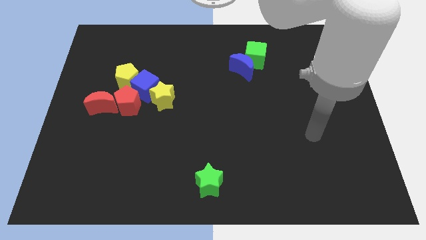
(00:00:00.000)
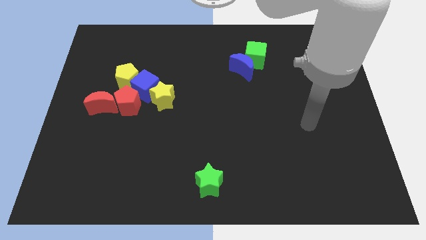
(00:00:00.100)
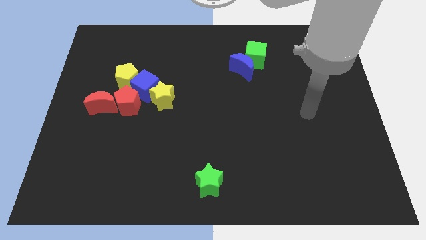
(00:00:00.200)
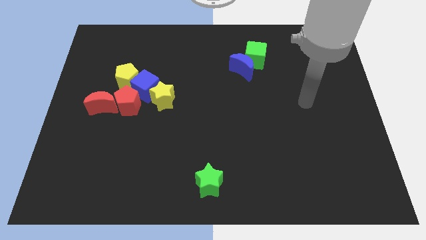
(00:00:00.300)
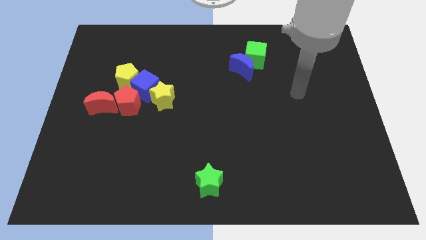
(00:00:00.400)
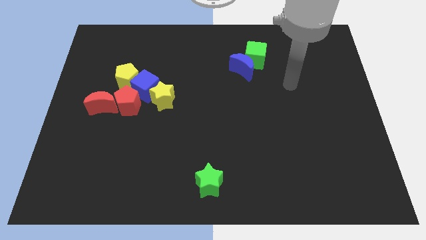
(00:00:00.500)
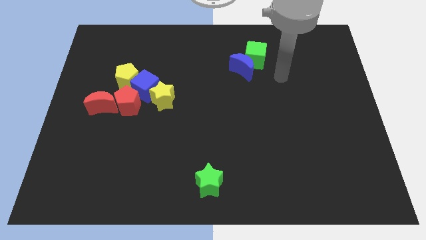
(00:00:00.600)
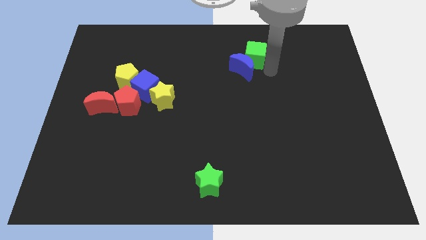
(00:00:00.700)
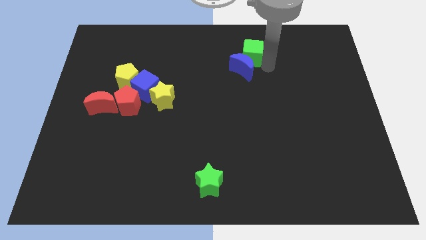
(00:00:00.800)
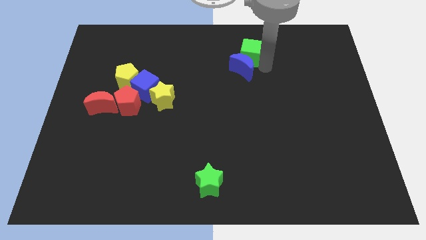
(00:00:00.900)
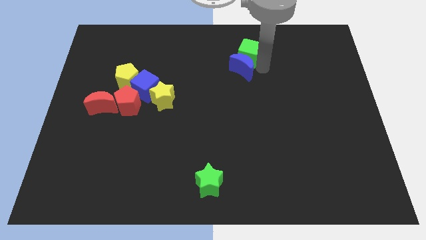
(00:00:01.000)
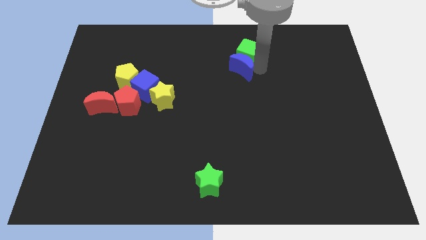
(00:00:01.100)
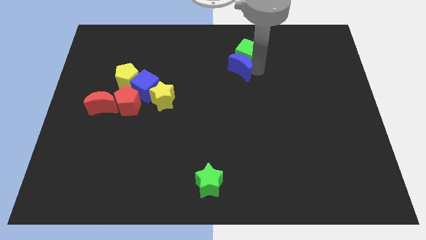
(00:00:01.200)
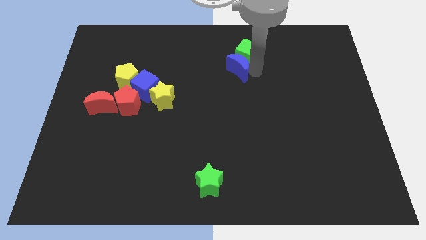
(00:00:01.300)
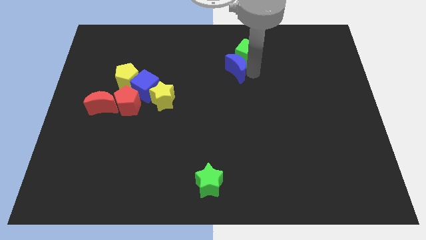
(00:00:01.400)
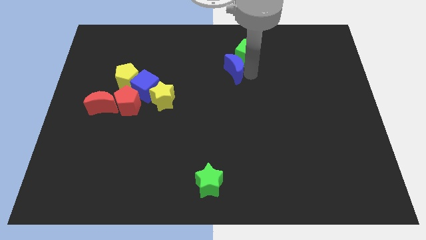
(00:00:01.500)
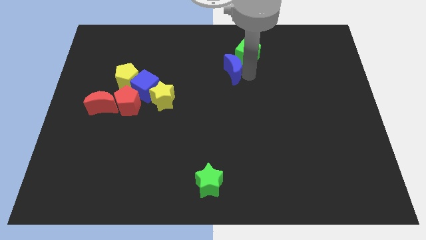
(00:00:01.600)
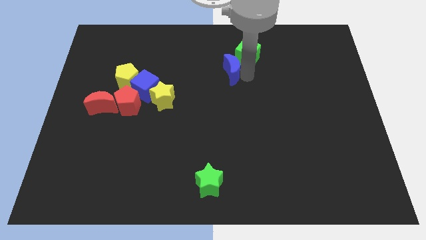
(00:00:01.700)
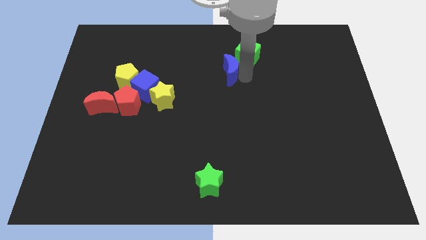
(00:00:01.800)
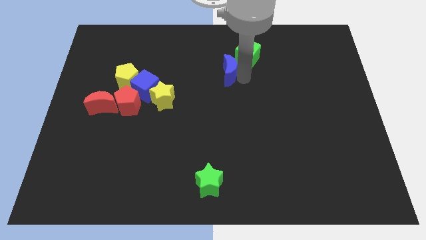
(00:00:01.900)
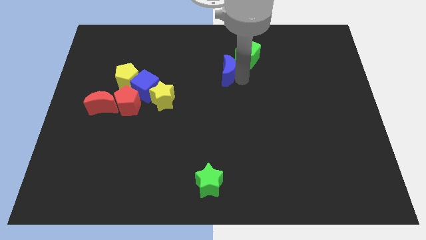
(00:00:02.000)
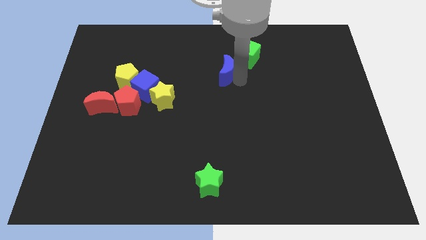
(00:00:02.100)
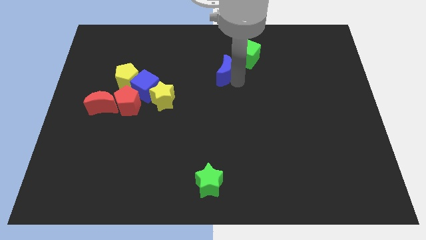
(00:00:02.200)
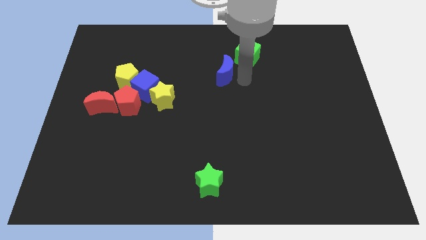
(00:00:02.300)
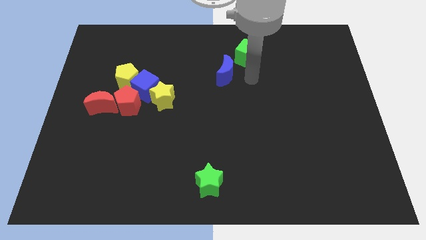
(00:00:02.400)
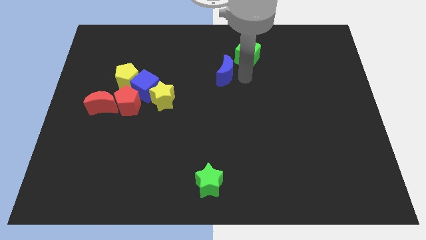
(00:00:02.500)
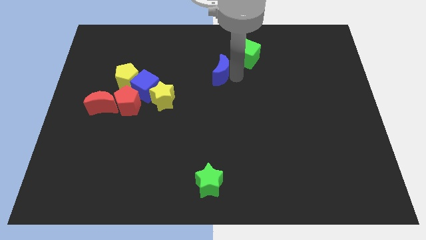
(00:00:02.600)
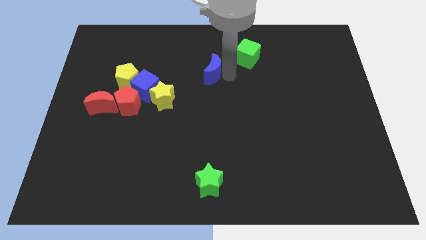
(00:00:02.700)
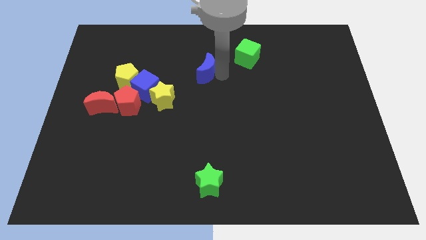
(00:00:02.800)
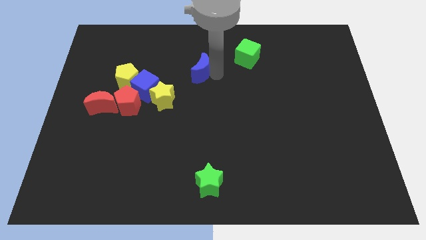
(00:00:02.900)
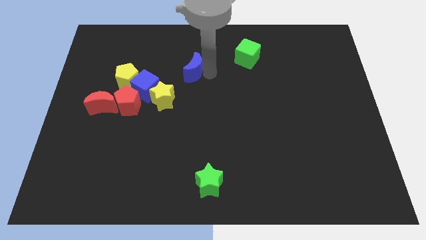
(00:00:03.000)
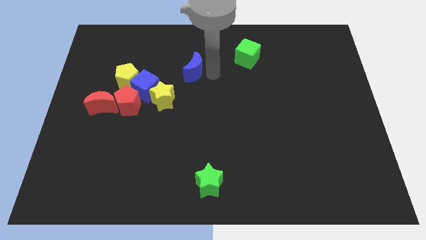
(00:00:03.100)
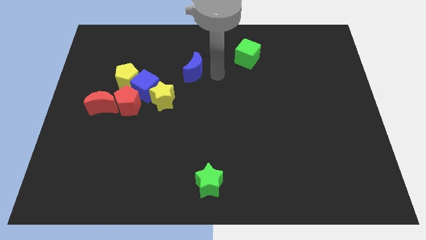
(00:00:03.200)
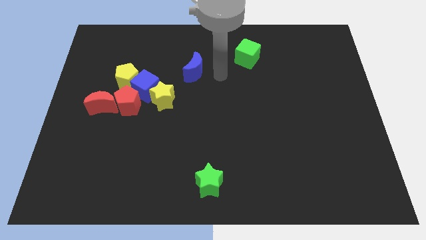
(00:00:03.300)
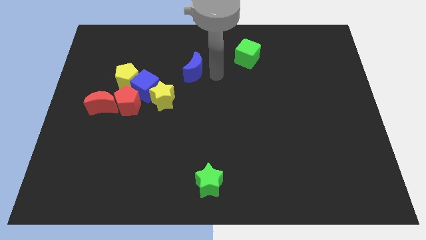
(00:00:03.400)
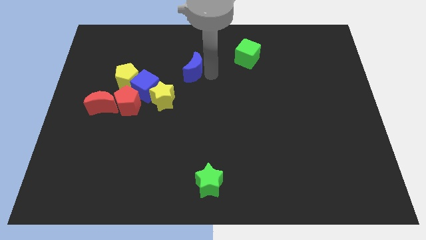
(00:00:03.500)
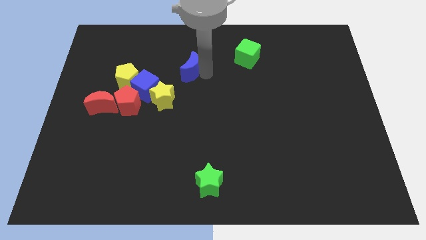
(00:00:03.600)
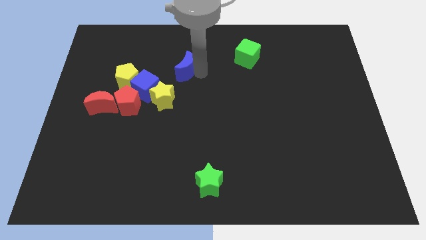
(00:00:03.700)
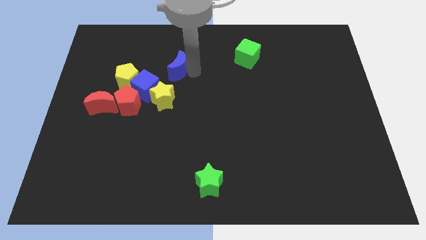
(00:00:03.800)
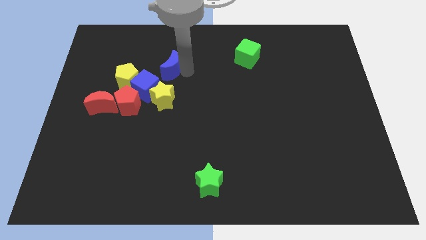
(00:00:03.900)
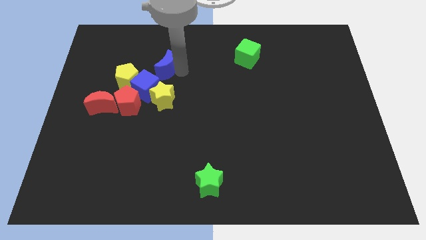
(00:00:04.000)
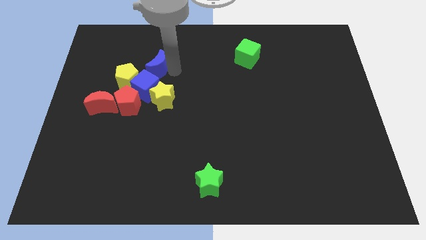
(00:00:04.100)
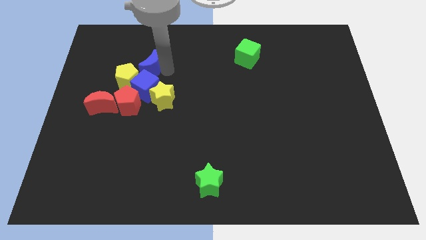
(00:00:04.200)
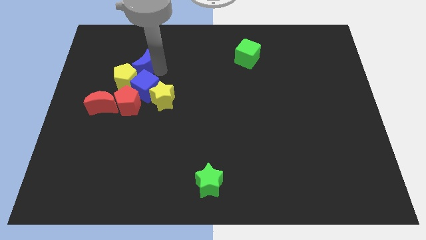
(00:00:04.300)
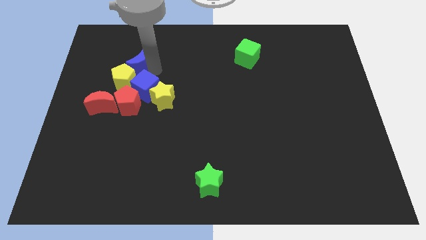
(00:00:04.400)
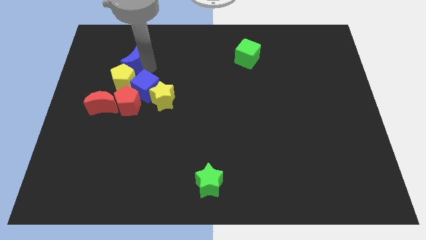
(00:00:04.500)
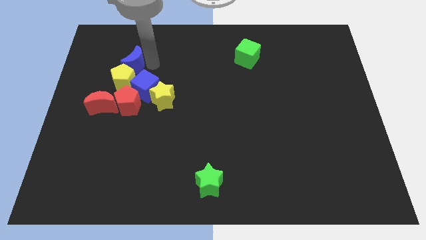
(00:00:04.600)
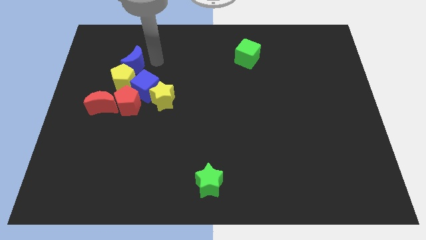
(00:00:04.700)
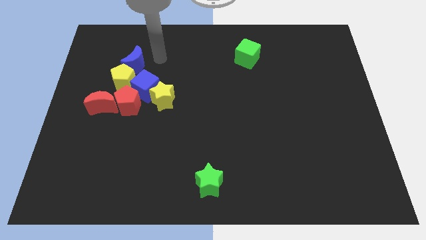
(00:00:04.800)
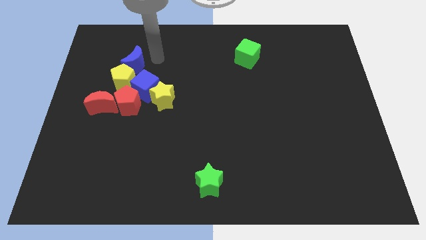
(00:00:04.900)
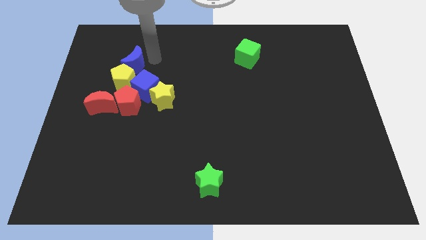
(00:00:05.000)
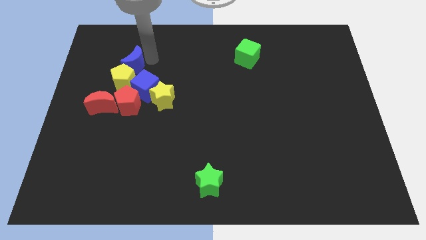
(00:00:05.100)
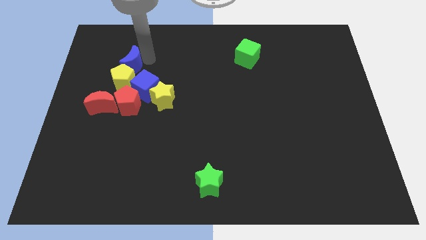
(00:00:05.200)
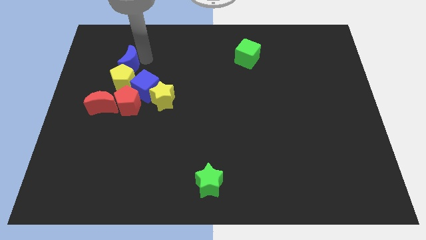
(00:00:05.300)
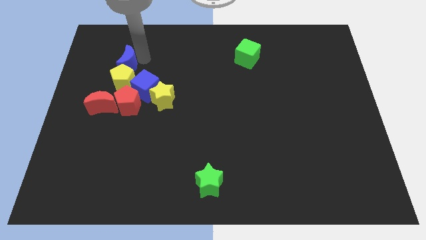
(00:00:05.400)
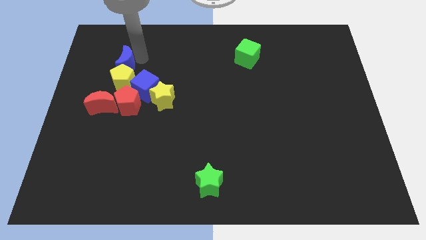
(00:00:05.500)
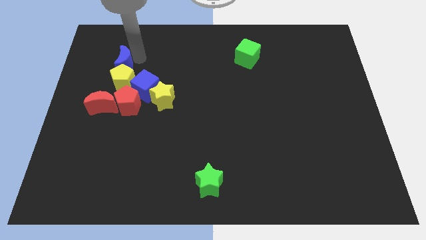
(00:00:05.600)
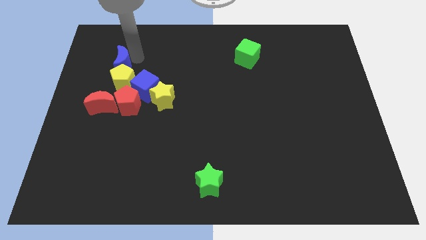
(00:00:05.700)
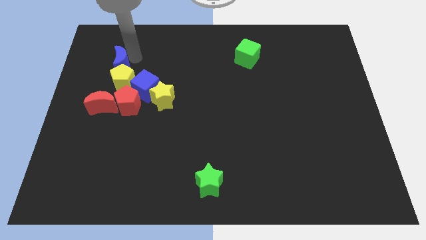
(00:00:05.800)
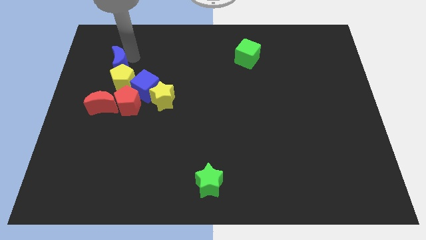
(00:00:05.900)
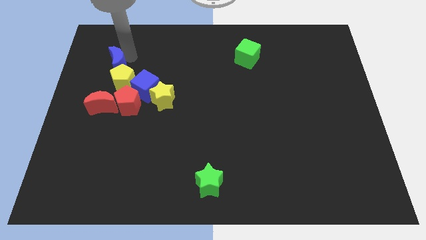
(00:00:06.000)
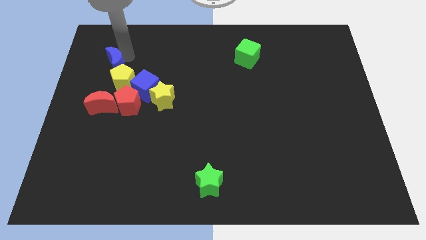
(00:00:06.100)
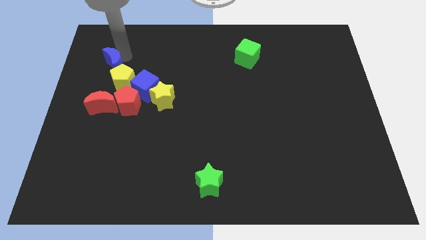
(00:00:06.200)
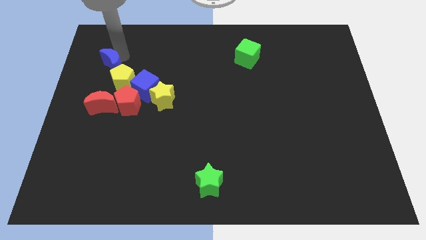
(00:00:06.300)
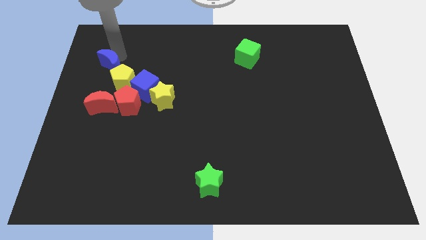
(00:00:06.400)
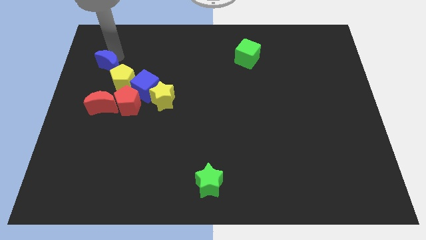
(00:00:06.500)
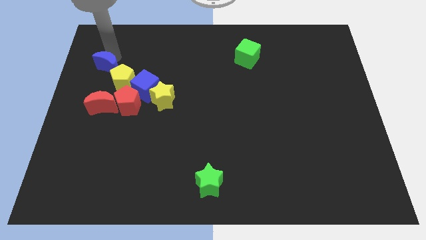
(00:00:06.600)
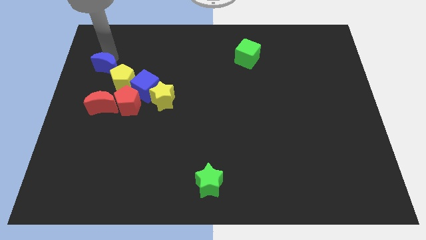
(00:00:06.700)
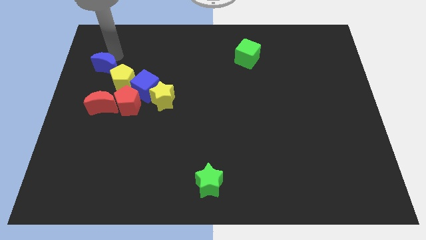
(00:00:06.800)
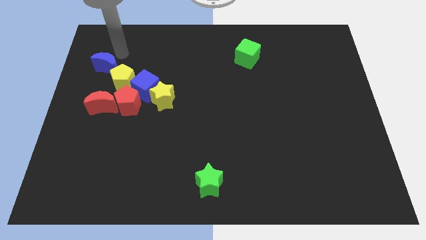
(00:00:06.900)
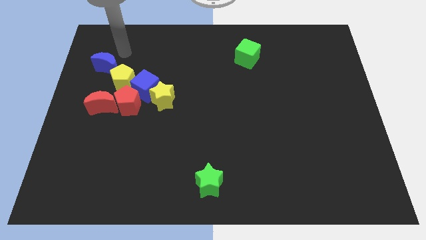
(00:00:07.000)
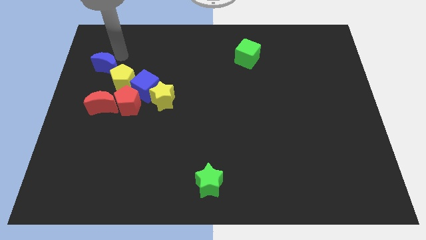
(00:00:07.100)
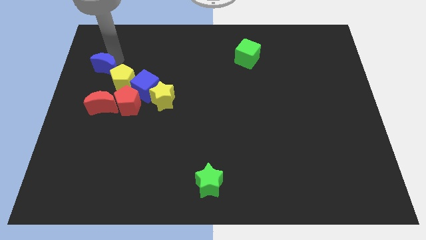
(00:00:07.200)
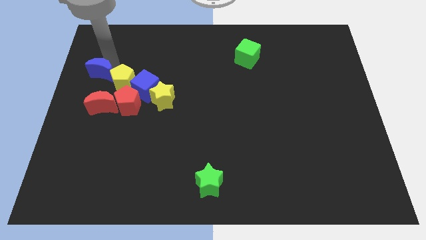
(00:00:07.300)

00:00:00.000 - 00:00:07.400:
push the blue moon to the left side of the board
